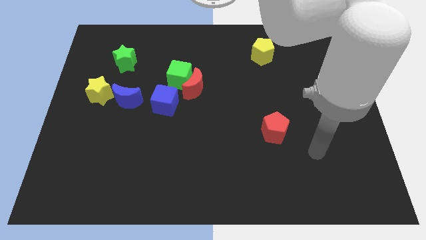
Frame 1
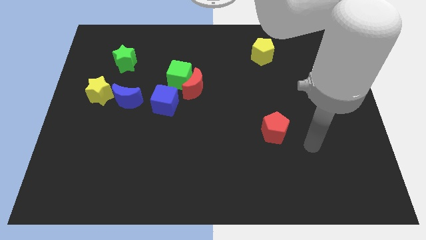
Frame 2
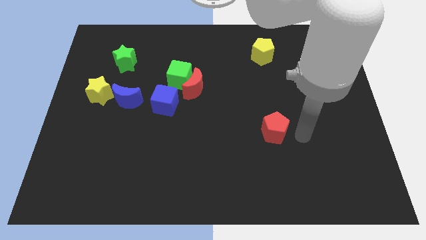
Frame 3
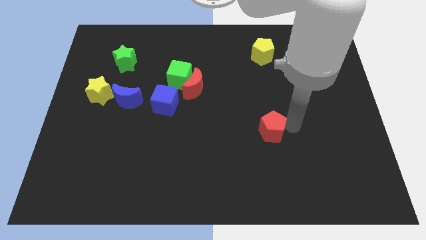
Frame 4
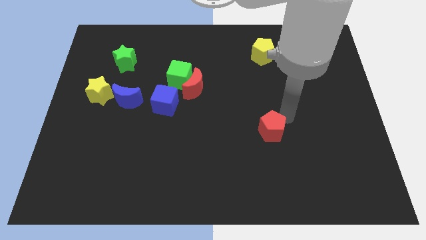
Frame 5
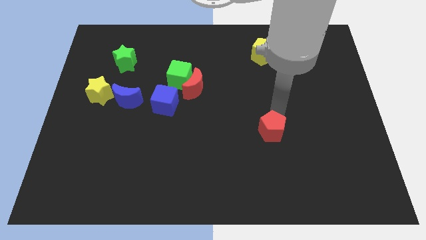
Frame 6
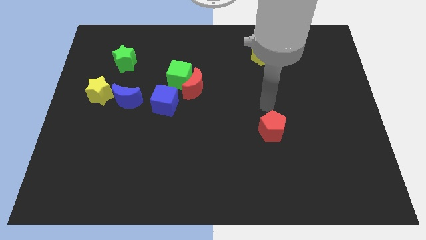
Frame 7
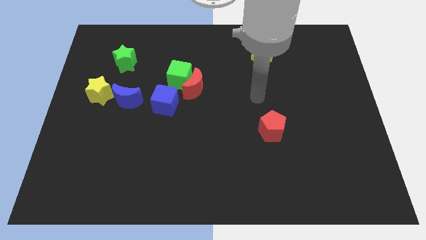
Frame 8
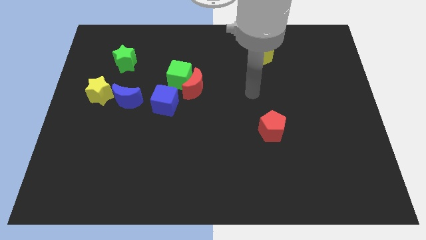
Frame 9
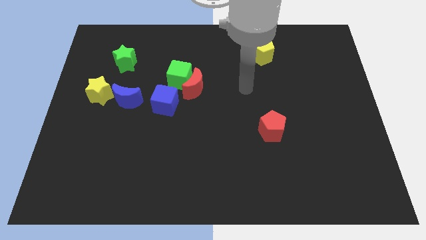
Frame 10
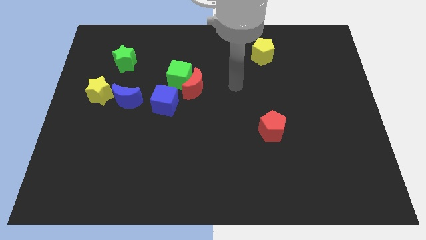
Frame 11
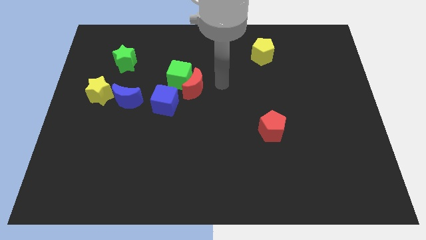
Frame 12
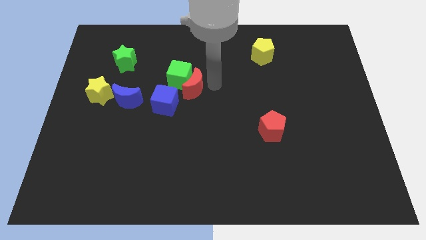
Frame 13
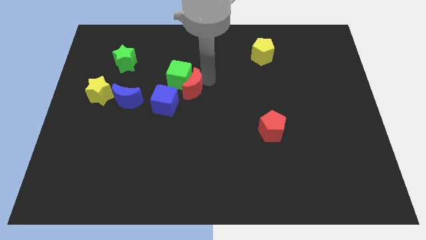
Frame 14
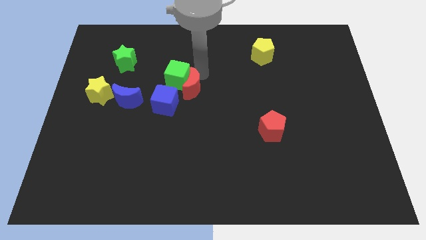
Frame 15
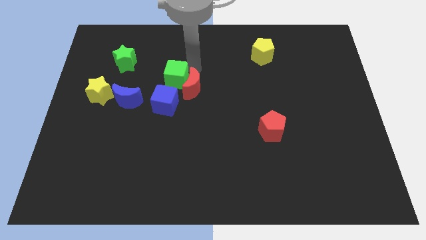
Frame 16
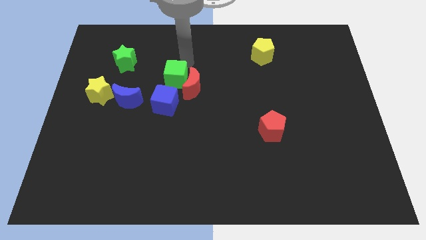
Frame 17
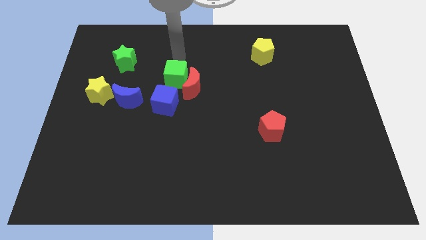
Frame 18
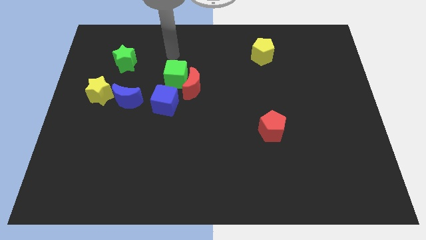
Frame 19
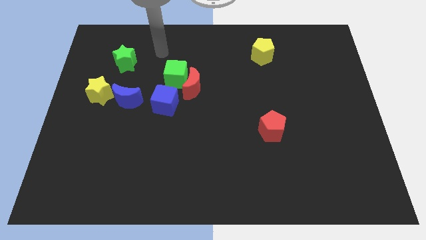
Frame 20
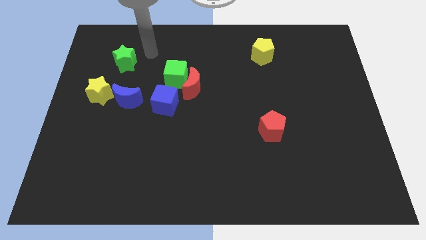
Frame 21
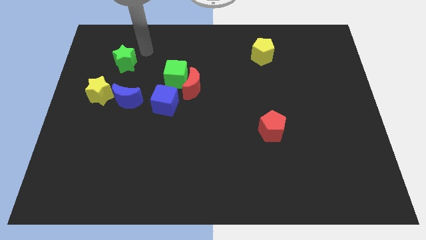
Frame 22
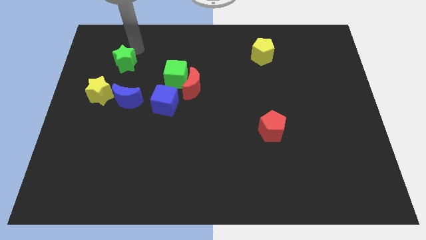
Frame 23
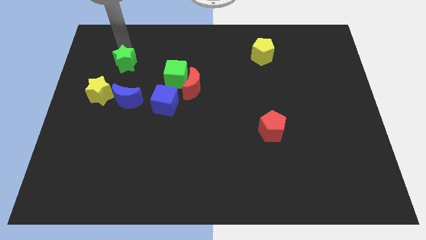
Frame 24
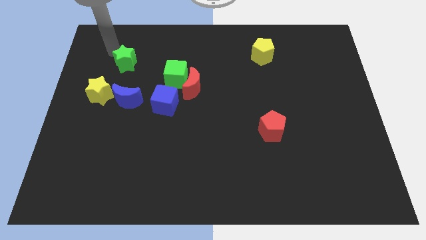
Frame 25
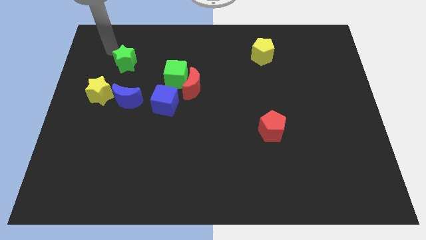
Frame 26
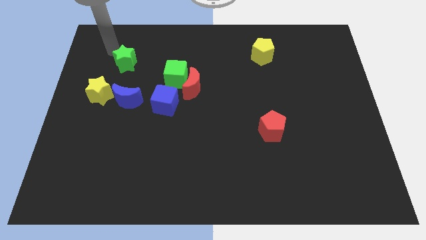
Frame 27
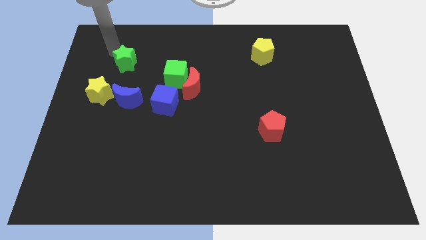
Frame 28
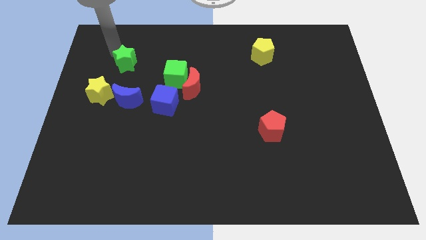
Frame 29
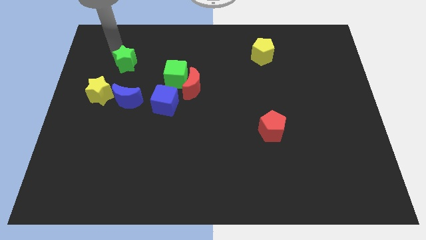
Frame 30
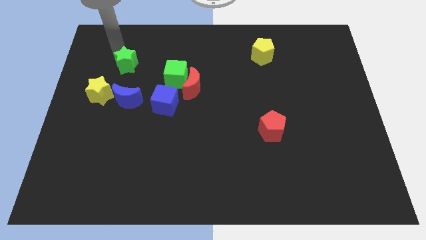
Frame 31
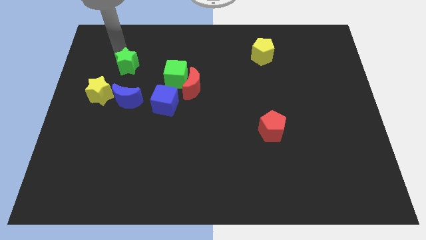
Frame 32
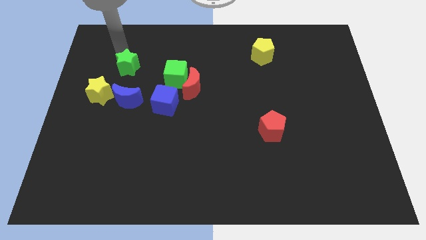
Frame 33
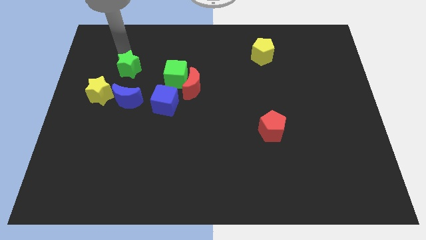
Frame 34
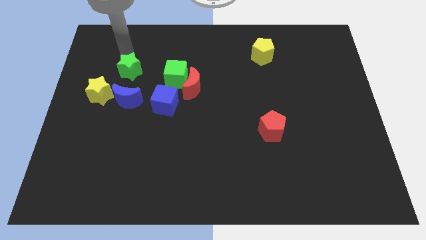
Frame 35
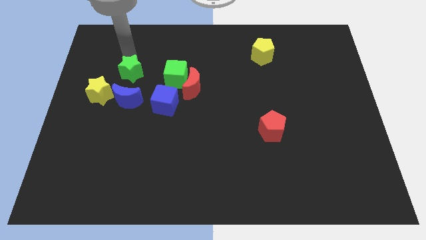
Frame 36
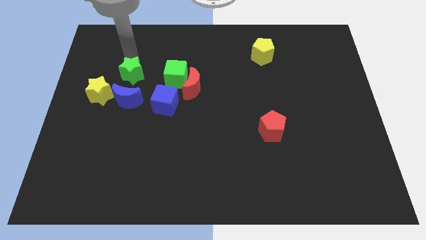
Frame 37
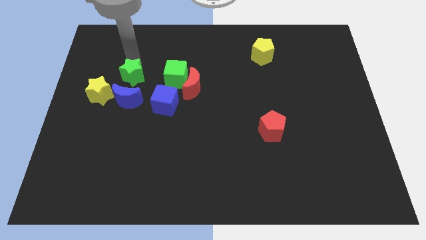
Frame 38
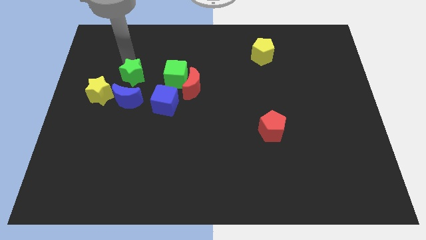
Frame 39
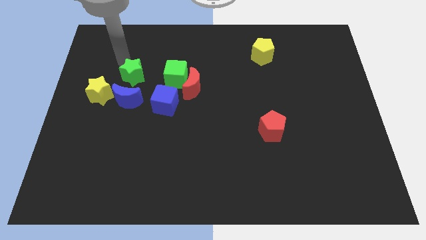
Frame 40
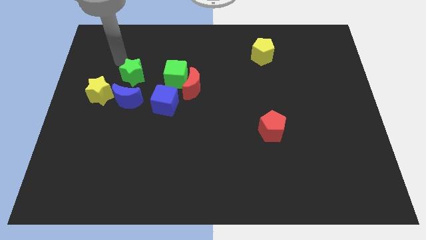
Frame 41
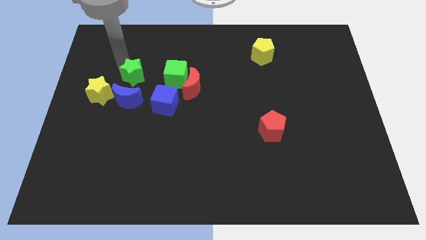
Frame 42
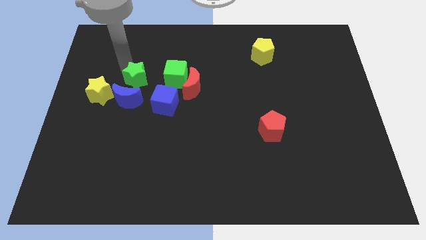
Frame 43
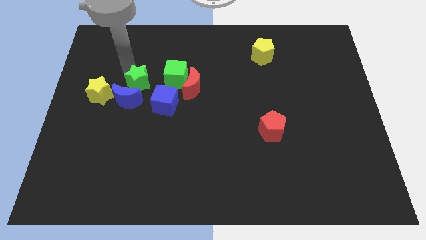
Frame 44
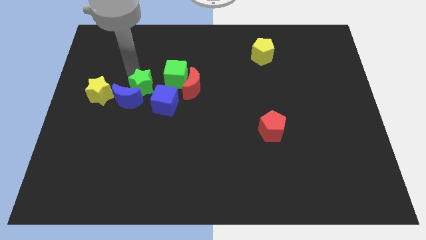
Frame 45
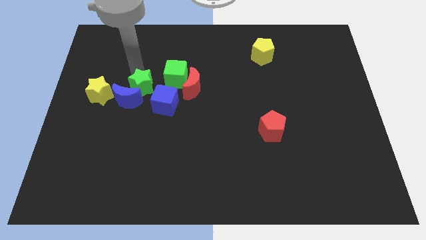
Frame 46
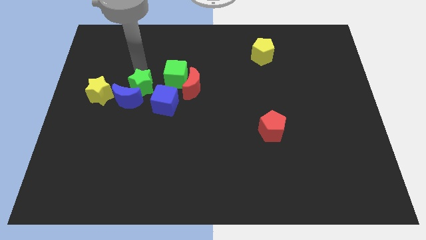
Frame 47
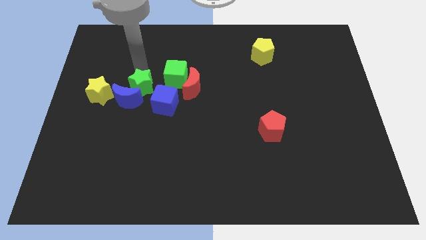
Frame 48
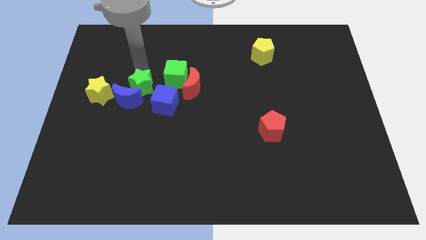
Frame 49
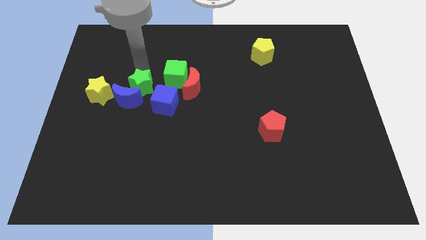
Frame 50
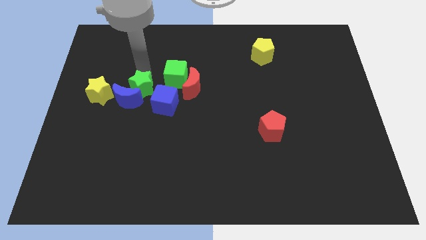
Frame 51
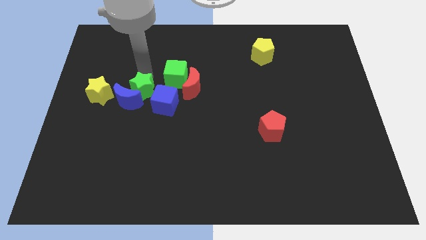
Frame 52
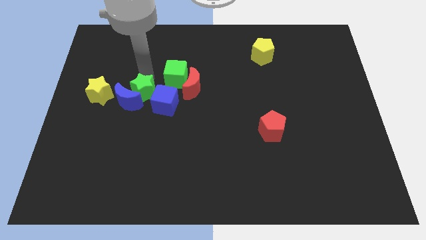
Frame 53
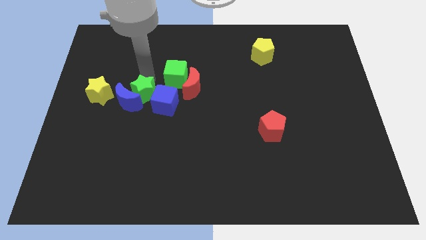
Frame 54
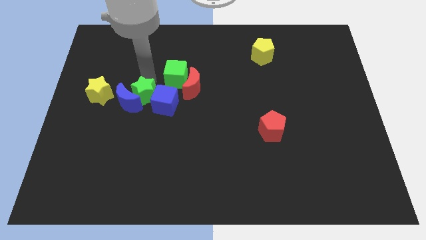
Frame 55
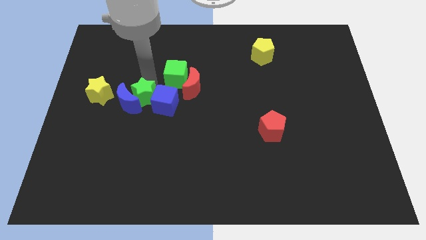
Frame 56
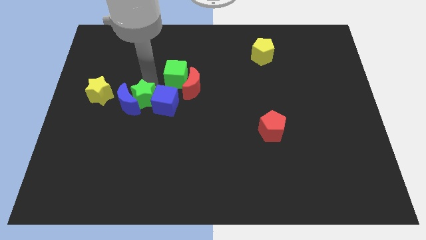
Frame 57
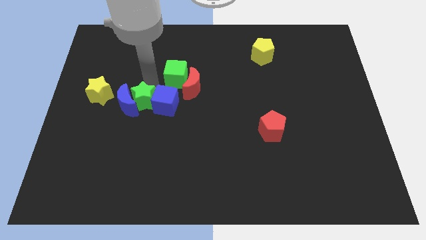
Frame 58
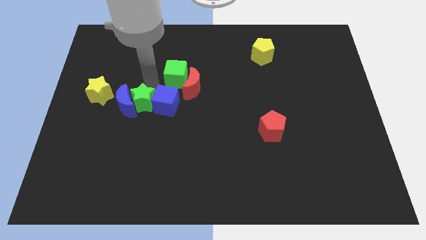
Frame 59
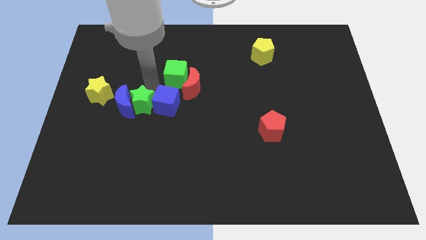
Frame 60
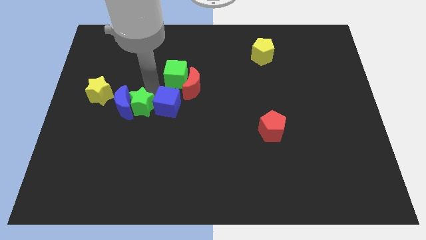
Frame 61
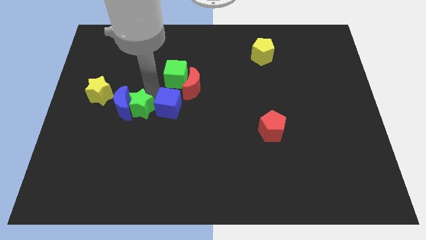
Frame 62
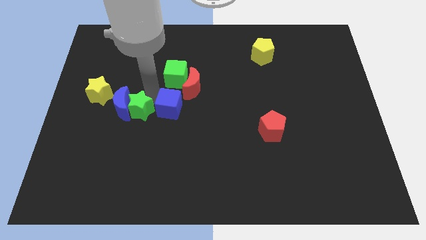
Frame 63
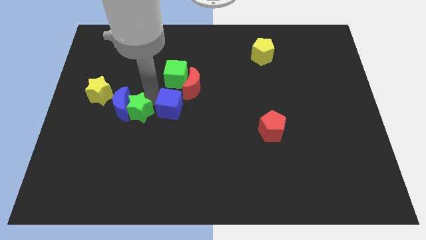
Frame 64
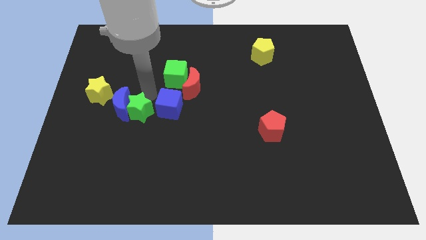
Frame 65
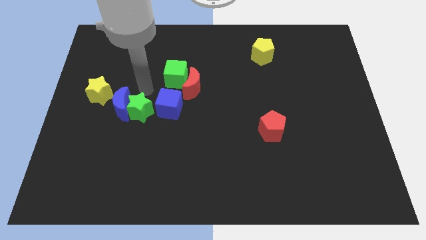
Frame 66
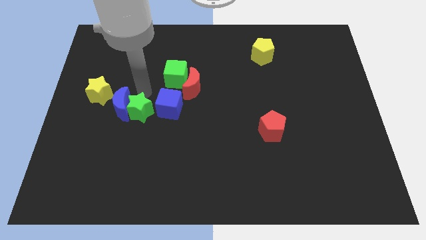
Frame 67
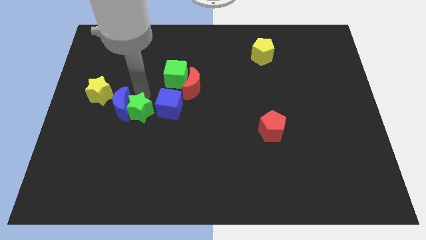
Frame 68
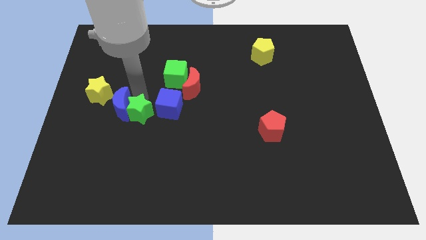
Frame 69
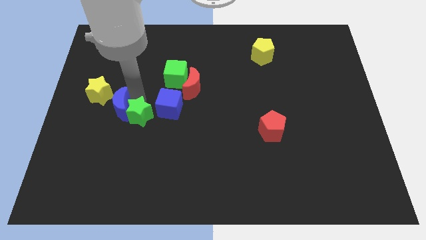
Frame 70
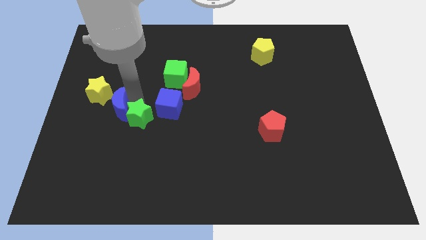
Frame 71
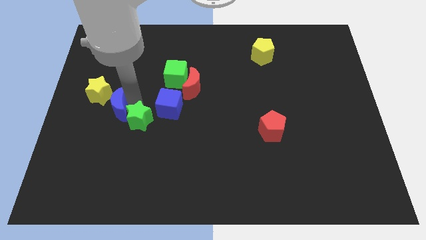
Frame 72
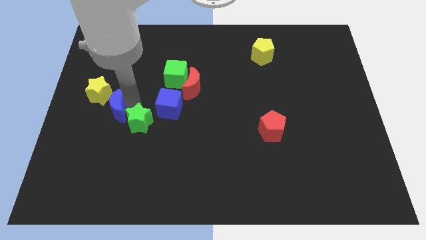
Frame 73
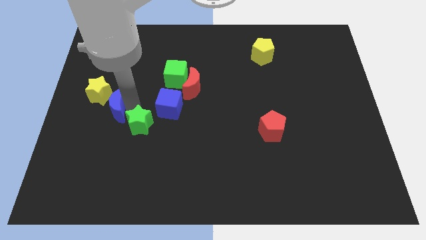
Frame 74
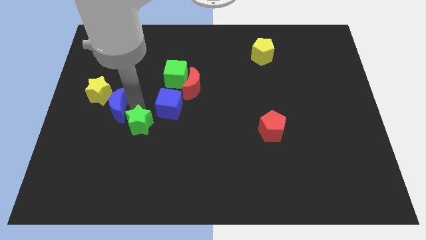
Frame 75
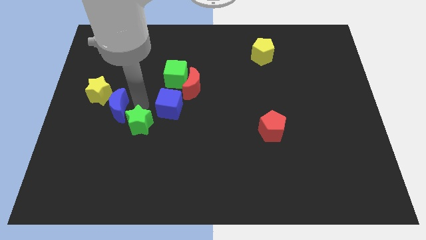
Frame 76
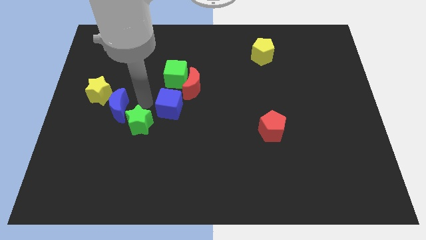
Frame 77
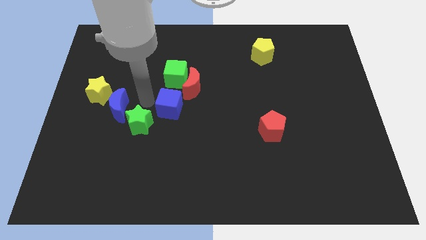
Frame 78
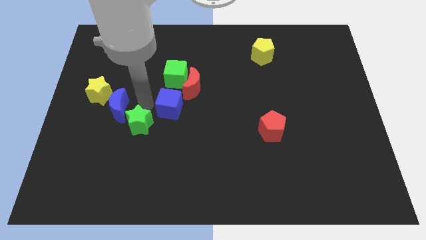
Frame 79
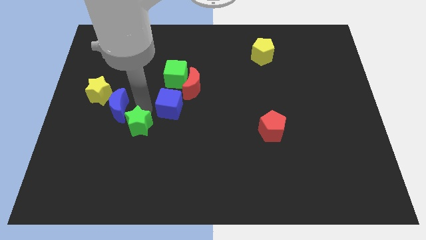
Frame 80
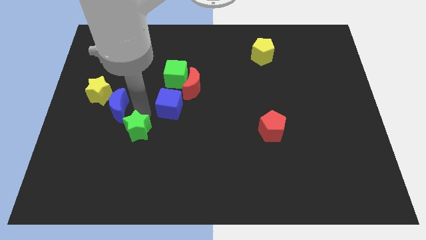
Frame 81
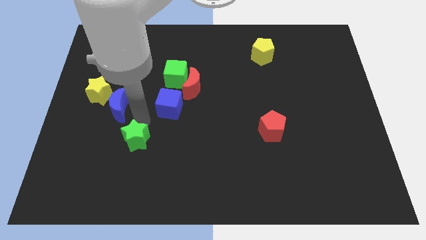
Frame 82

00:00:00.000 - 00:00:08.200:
move the green star down
